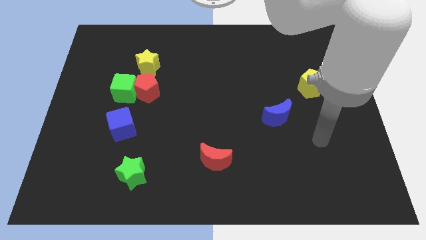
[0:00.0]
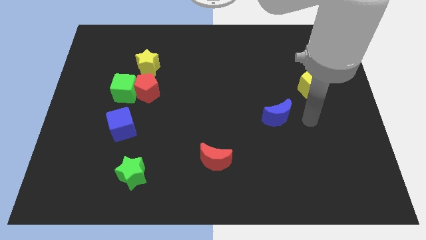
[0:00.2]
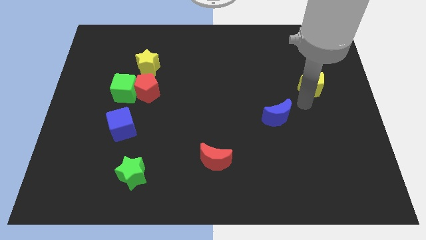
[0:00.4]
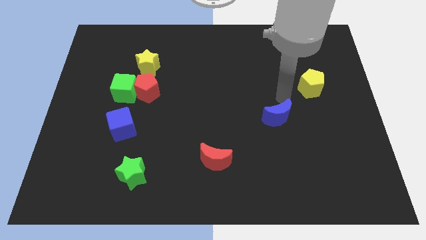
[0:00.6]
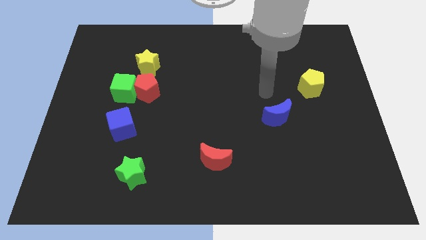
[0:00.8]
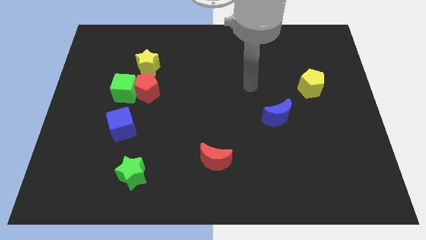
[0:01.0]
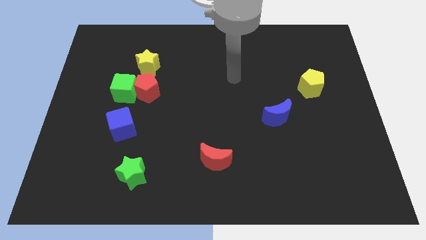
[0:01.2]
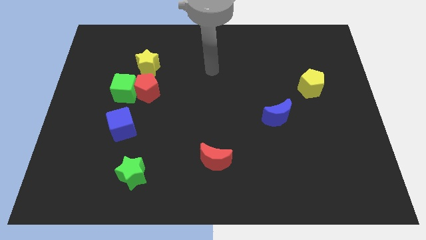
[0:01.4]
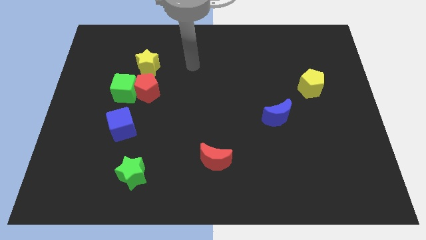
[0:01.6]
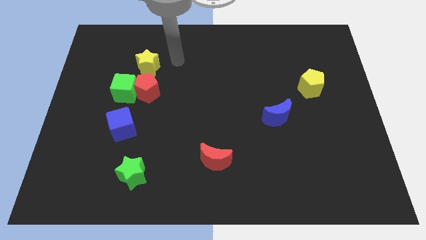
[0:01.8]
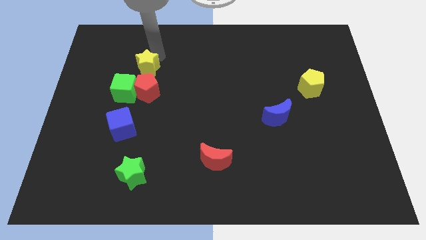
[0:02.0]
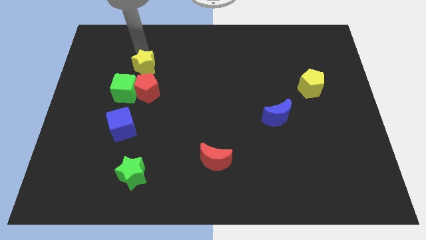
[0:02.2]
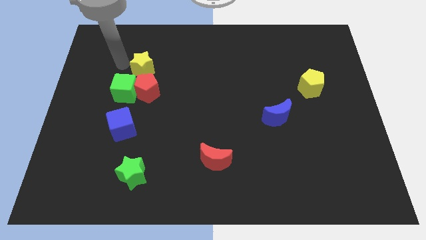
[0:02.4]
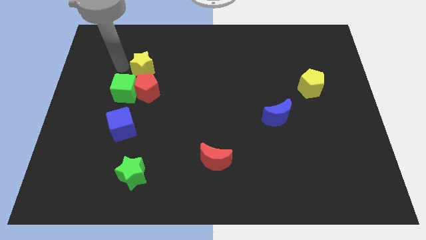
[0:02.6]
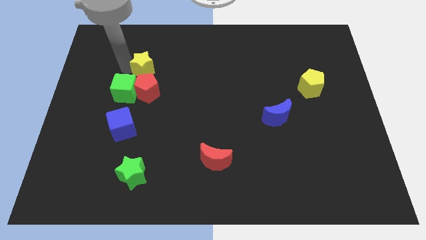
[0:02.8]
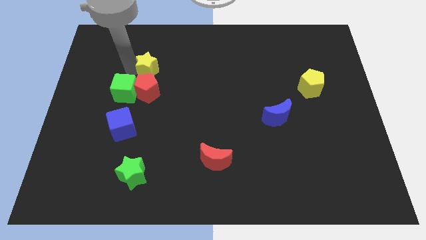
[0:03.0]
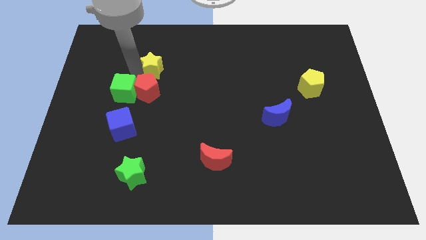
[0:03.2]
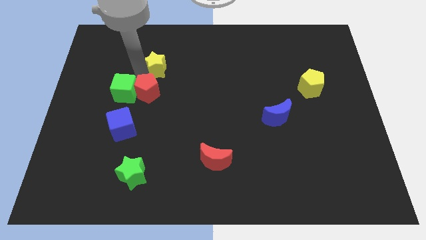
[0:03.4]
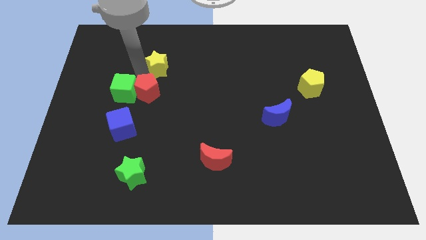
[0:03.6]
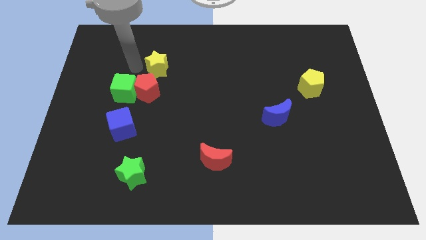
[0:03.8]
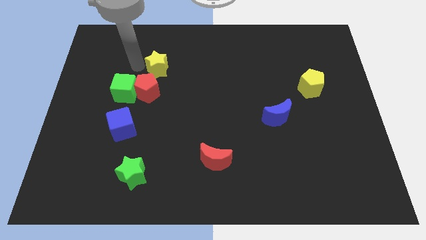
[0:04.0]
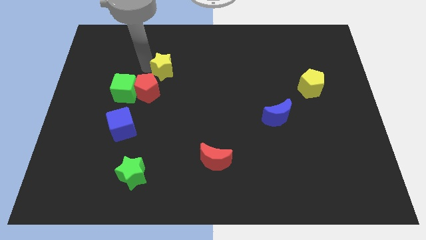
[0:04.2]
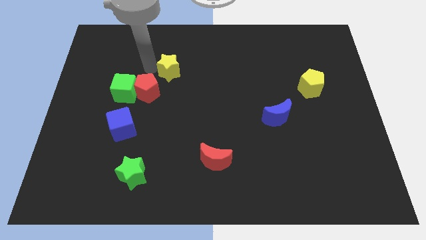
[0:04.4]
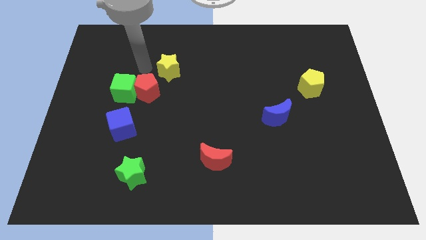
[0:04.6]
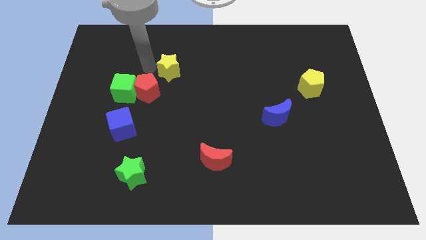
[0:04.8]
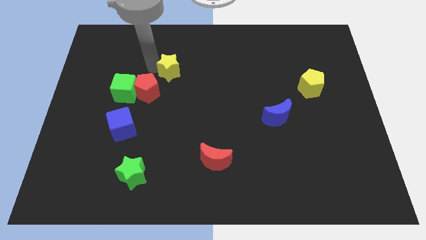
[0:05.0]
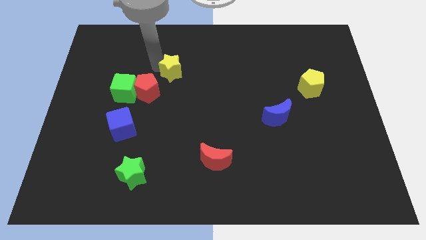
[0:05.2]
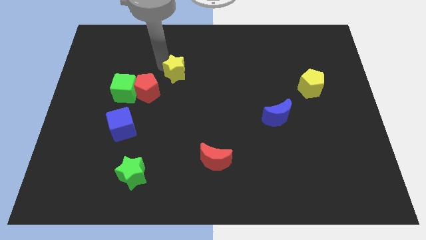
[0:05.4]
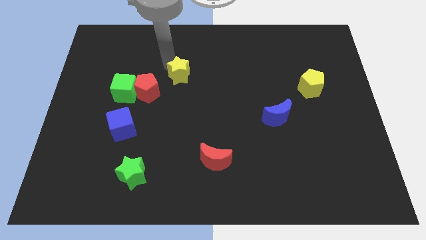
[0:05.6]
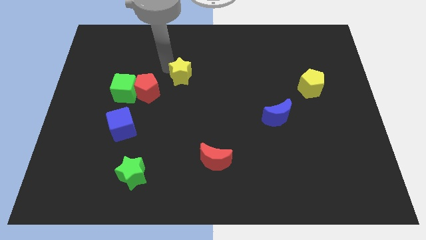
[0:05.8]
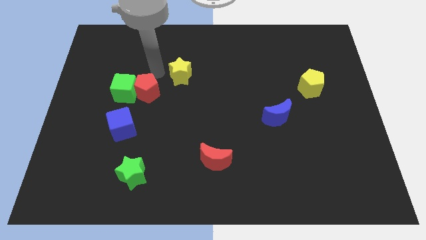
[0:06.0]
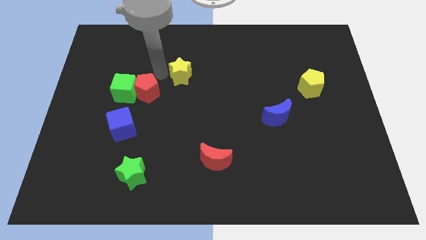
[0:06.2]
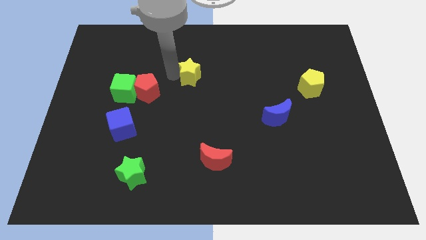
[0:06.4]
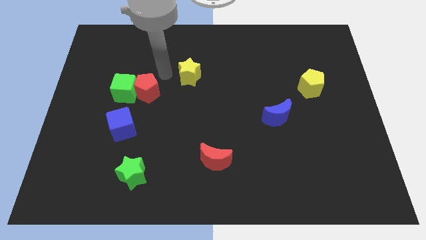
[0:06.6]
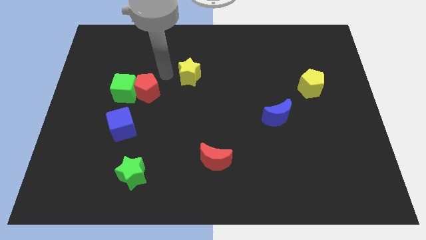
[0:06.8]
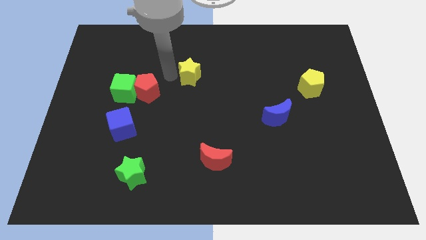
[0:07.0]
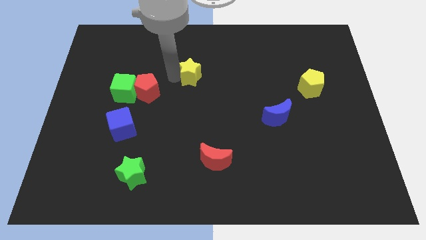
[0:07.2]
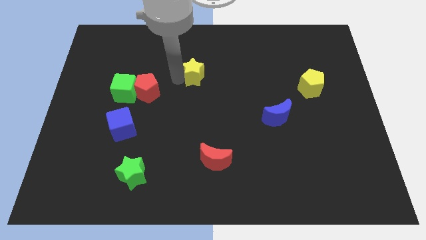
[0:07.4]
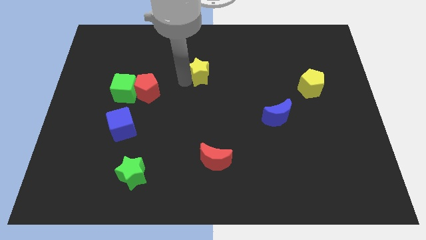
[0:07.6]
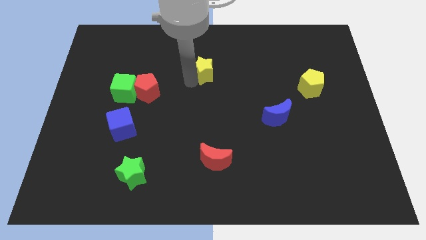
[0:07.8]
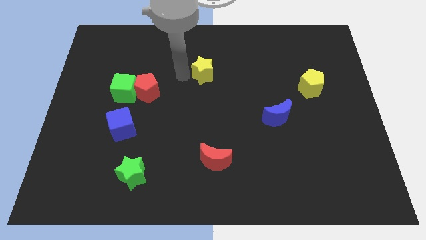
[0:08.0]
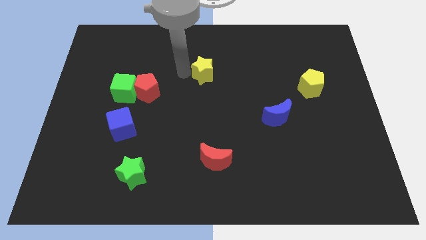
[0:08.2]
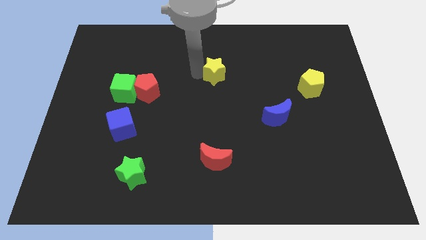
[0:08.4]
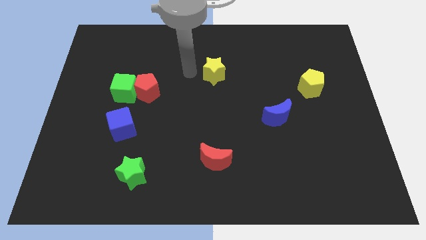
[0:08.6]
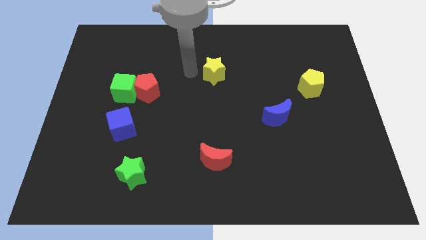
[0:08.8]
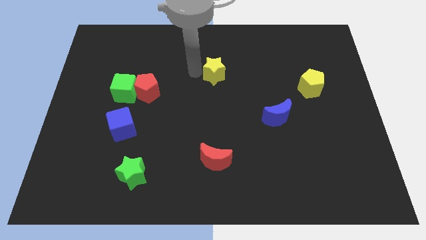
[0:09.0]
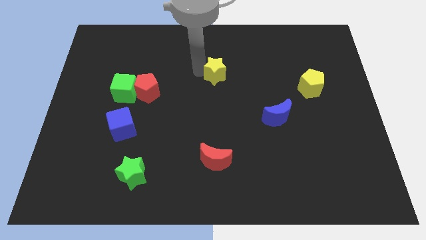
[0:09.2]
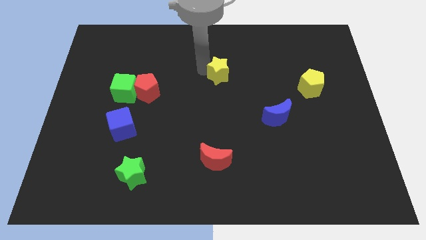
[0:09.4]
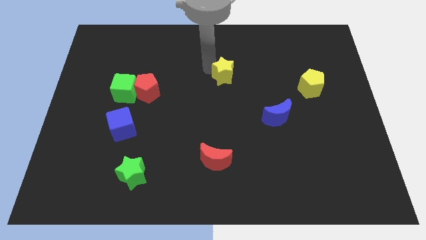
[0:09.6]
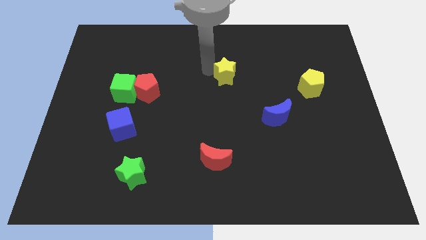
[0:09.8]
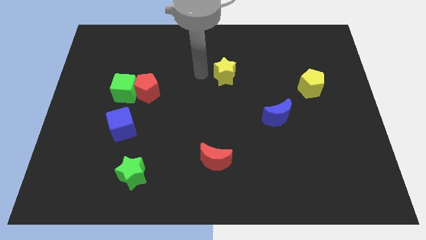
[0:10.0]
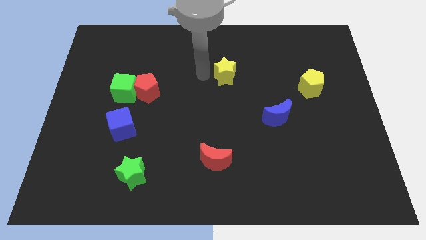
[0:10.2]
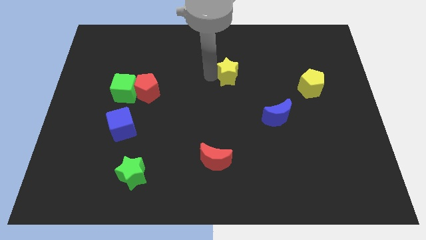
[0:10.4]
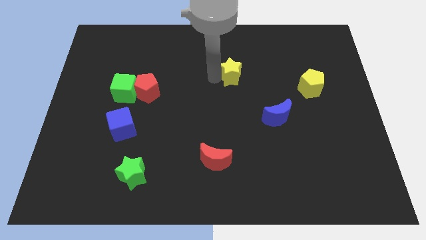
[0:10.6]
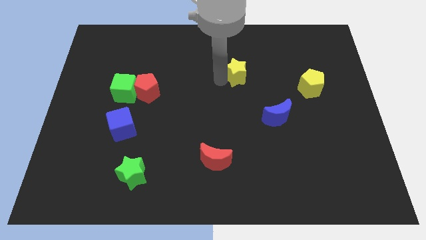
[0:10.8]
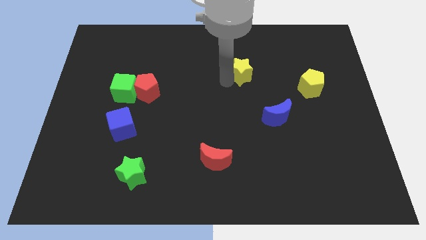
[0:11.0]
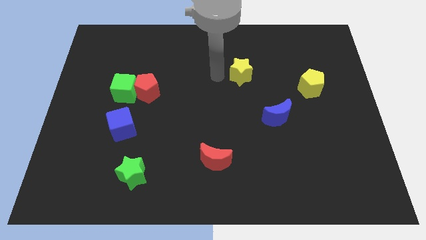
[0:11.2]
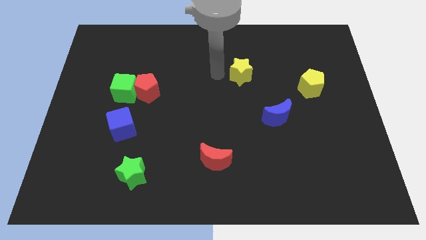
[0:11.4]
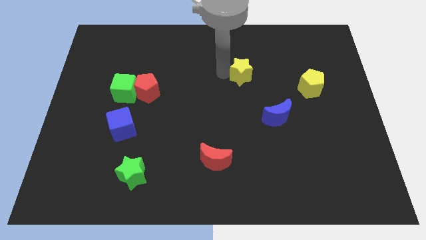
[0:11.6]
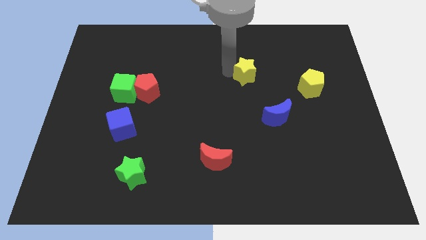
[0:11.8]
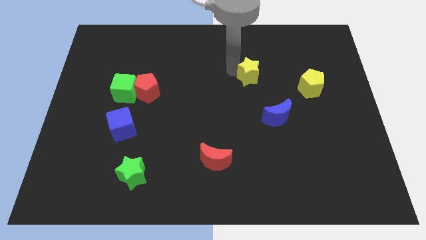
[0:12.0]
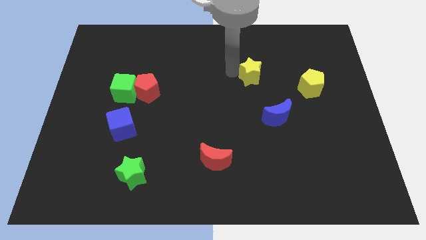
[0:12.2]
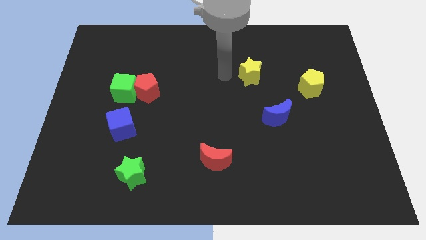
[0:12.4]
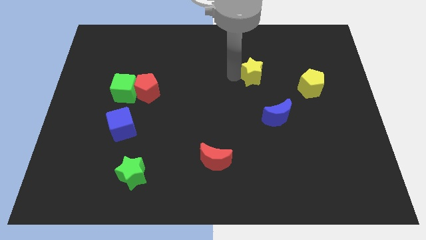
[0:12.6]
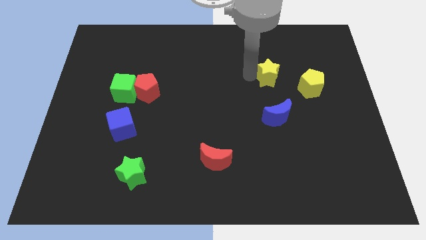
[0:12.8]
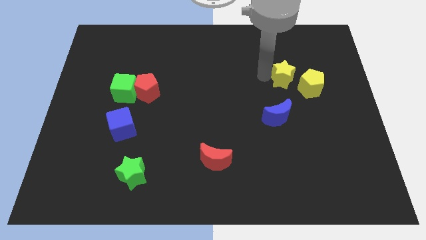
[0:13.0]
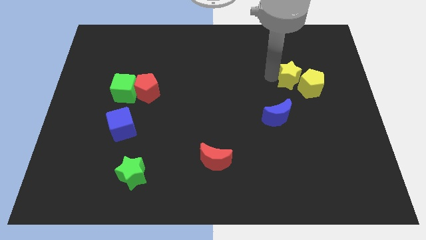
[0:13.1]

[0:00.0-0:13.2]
move the yellow star next to the yellow pentagon
